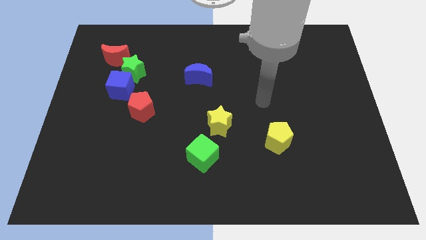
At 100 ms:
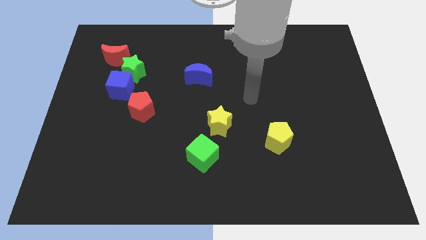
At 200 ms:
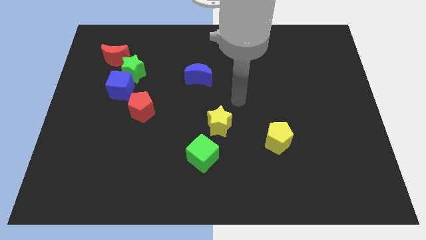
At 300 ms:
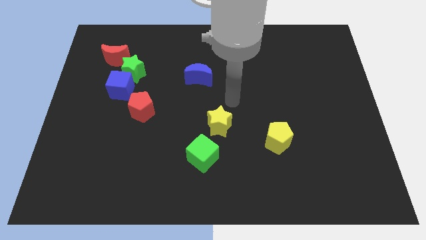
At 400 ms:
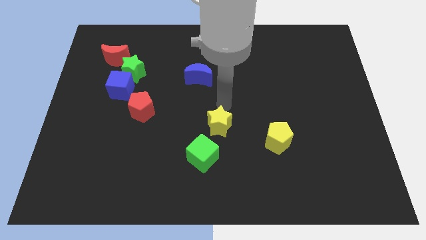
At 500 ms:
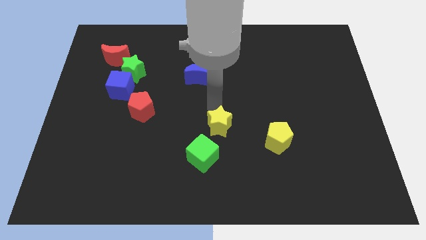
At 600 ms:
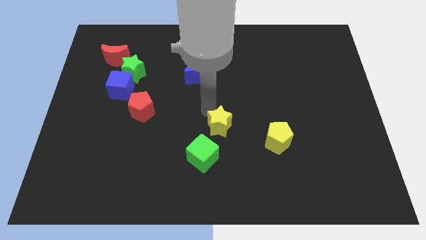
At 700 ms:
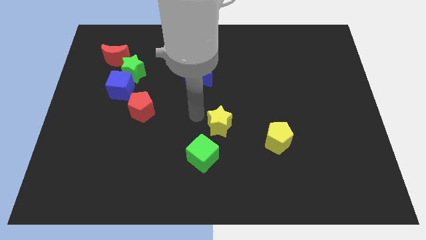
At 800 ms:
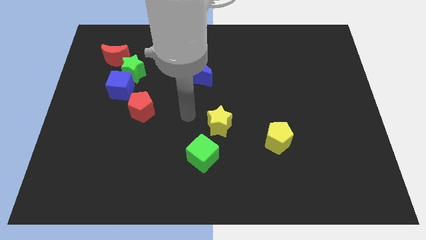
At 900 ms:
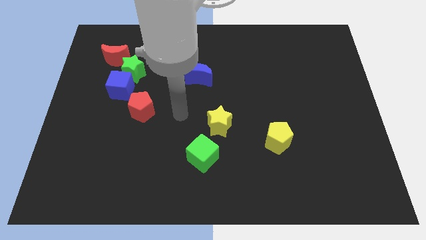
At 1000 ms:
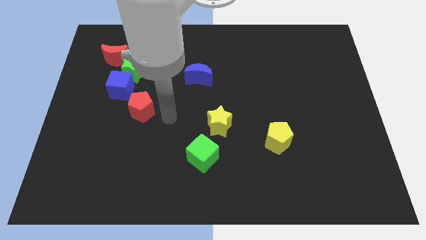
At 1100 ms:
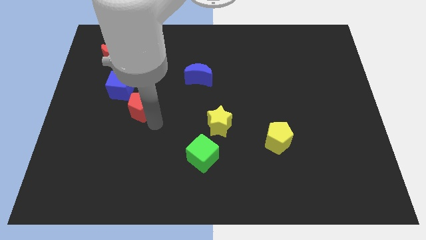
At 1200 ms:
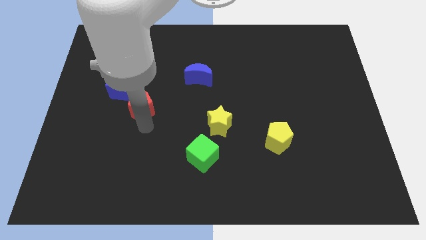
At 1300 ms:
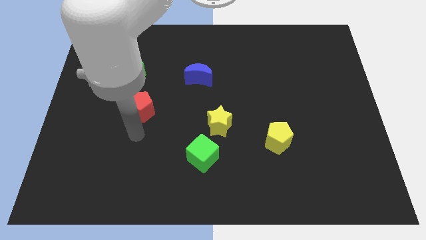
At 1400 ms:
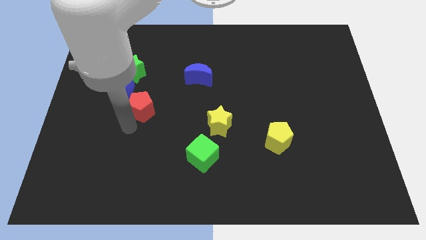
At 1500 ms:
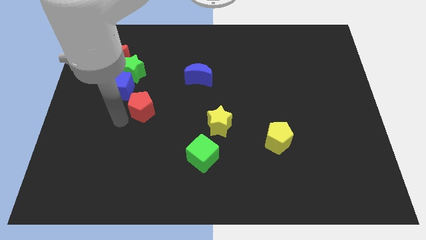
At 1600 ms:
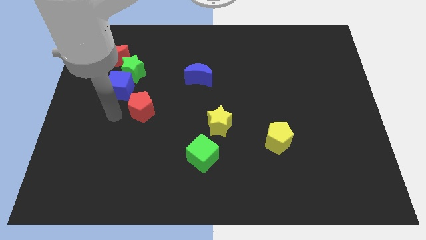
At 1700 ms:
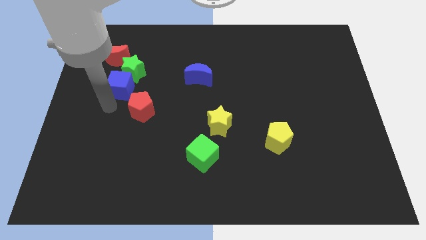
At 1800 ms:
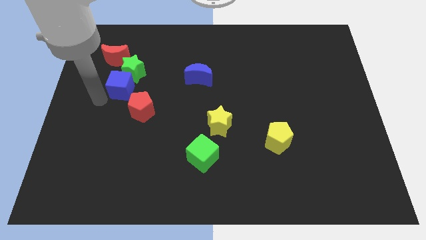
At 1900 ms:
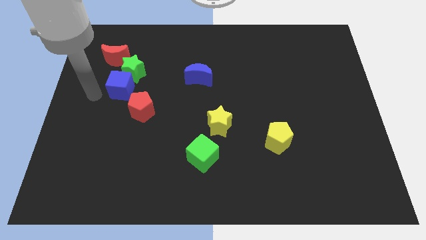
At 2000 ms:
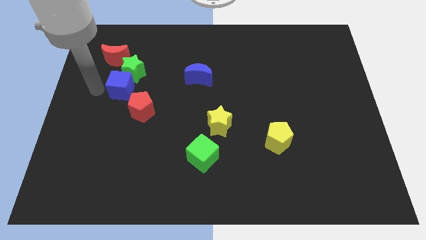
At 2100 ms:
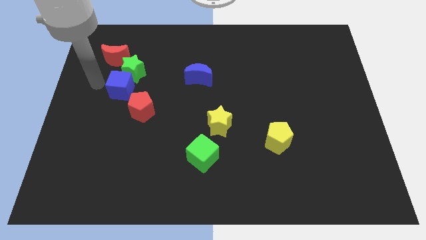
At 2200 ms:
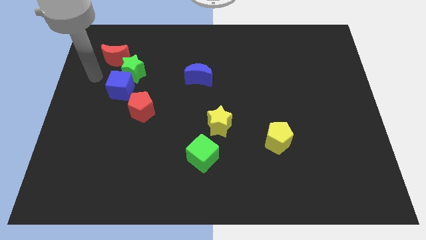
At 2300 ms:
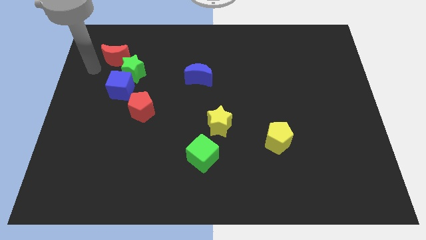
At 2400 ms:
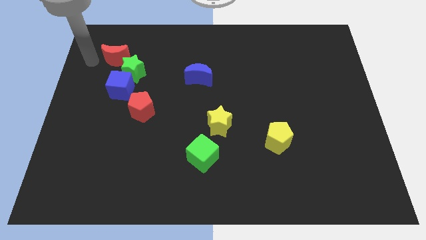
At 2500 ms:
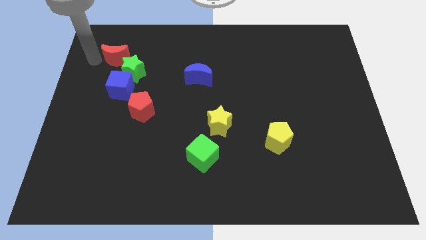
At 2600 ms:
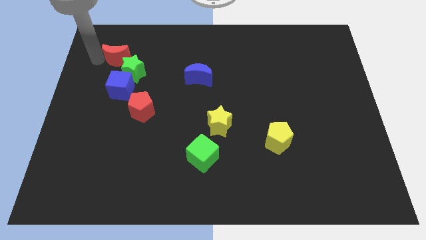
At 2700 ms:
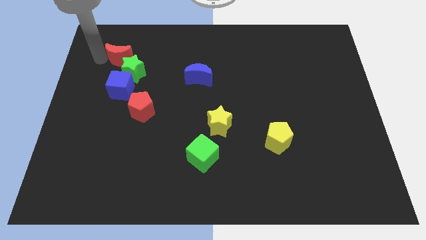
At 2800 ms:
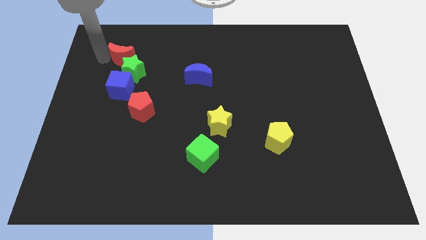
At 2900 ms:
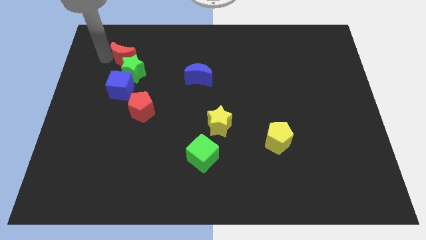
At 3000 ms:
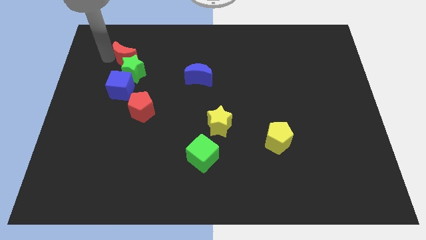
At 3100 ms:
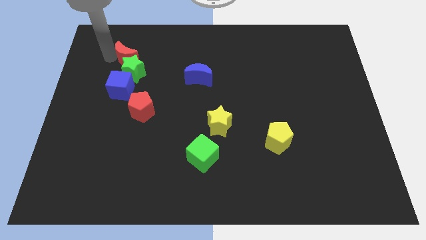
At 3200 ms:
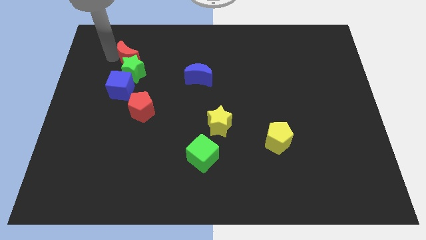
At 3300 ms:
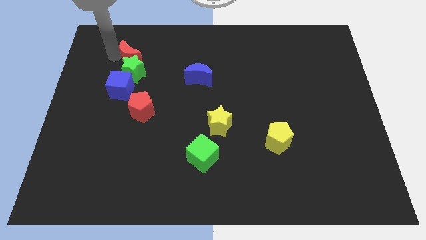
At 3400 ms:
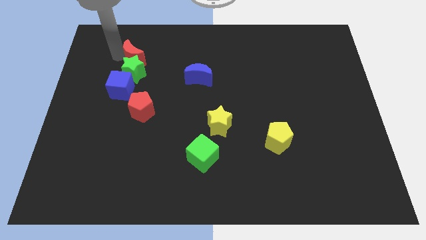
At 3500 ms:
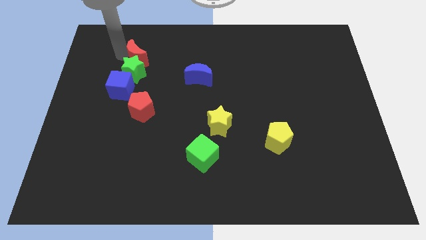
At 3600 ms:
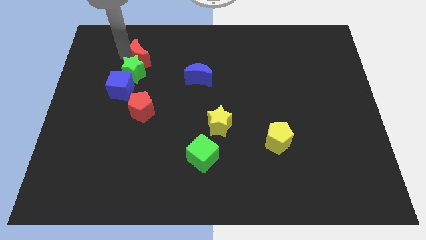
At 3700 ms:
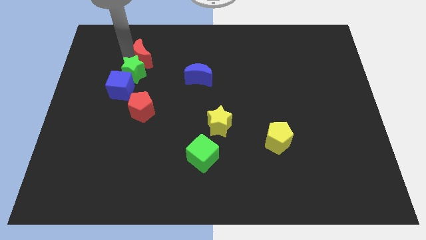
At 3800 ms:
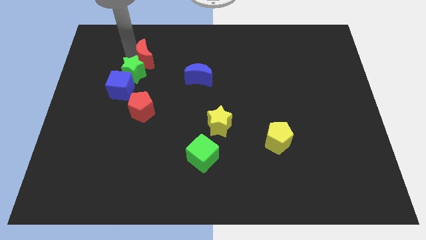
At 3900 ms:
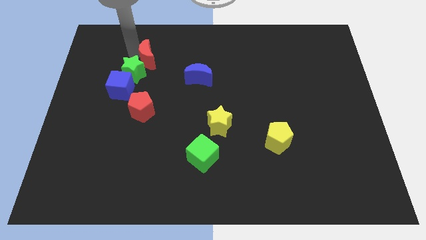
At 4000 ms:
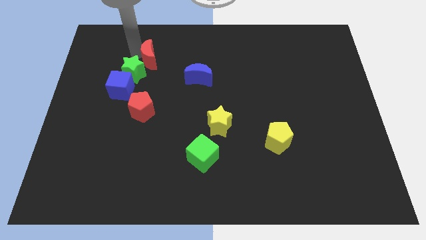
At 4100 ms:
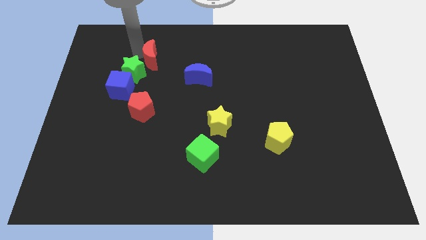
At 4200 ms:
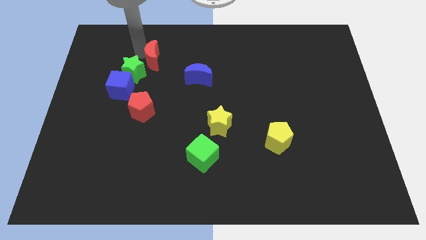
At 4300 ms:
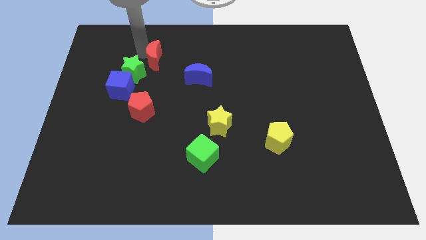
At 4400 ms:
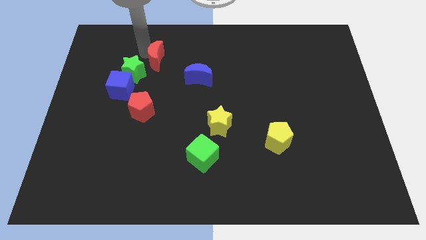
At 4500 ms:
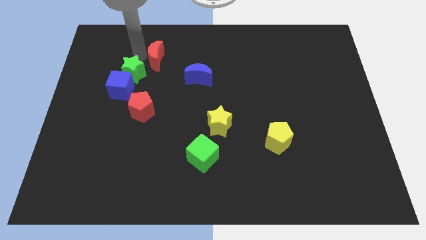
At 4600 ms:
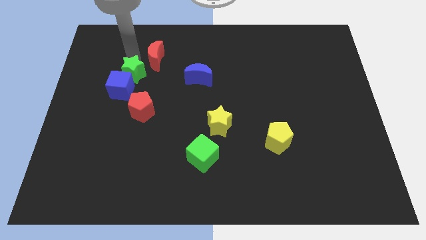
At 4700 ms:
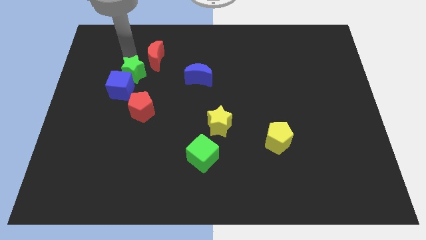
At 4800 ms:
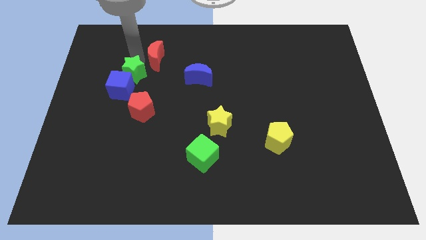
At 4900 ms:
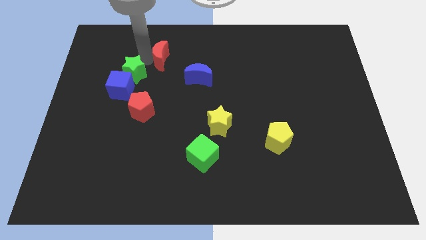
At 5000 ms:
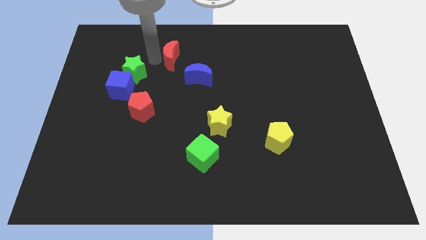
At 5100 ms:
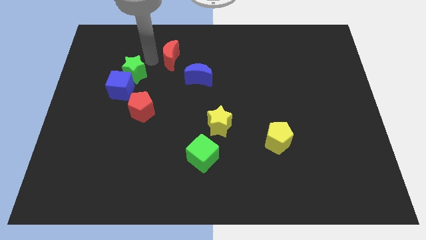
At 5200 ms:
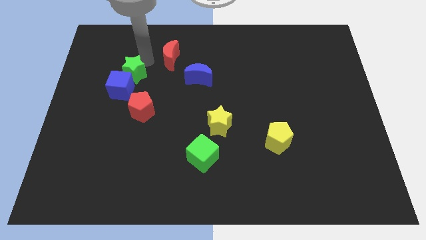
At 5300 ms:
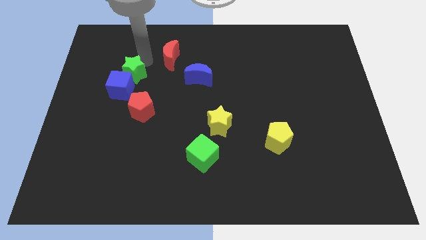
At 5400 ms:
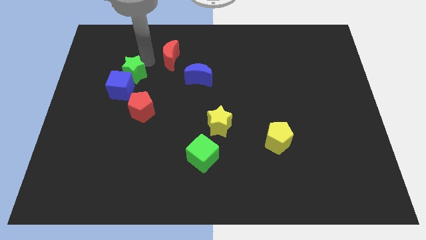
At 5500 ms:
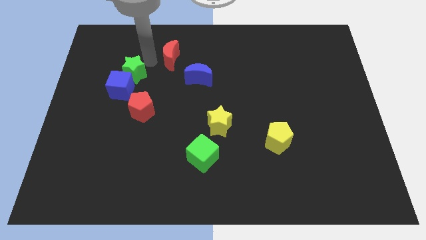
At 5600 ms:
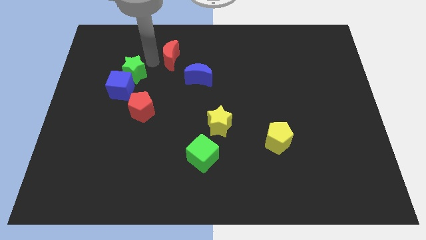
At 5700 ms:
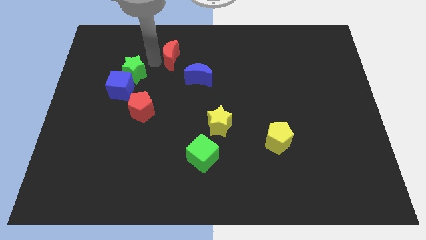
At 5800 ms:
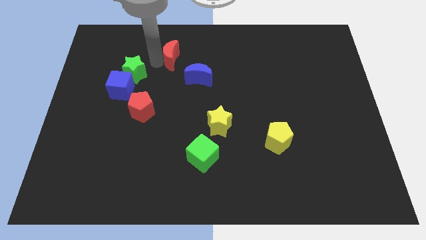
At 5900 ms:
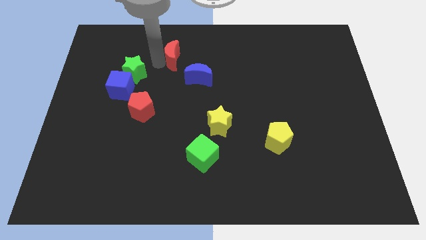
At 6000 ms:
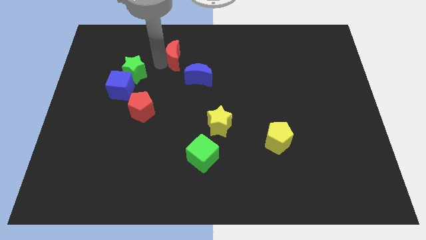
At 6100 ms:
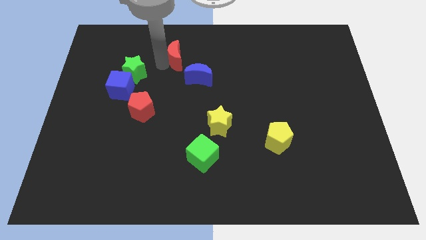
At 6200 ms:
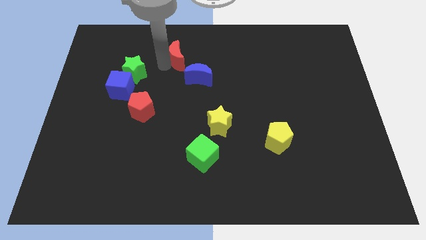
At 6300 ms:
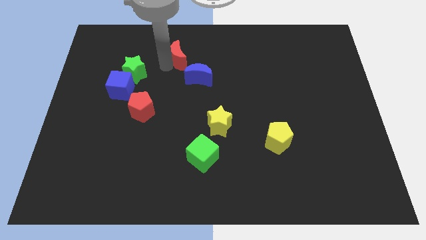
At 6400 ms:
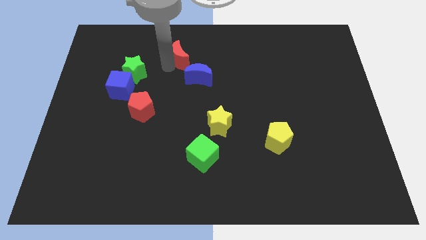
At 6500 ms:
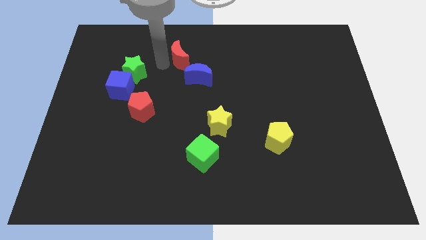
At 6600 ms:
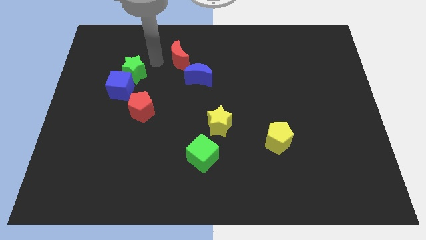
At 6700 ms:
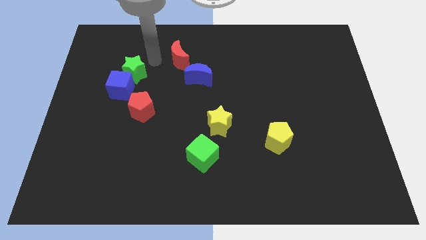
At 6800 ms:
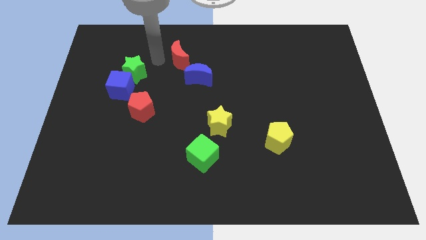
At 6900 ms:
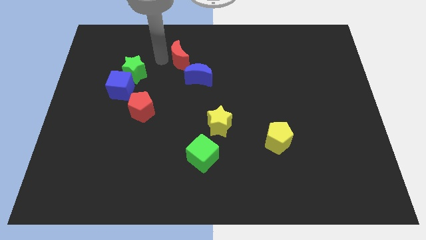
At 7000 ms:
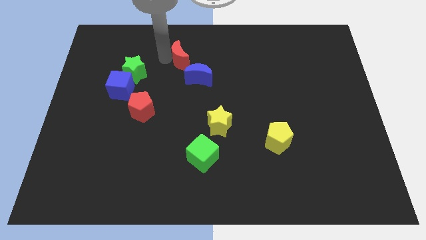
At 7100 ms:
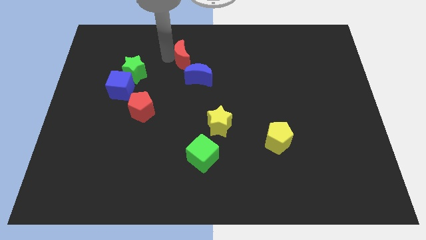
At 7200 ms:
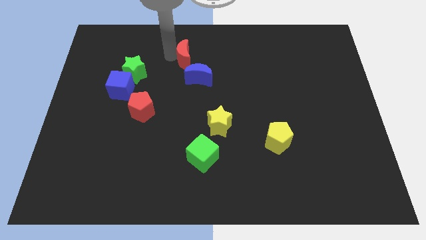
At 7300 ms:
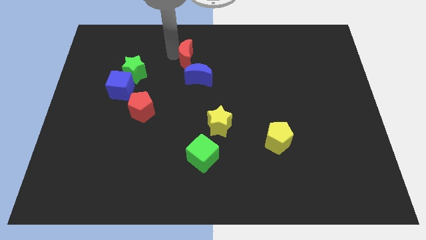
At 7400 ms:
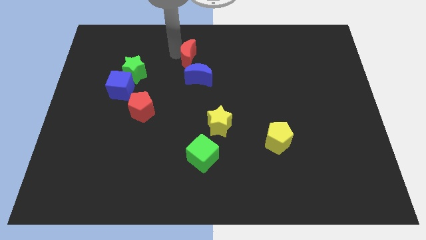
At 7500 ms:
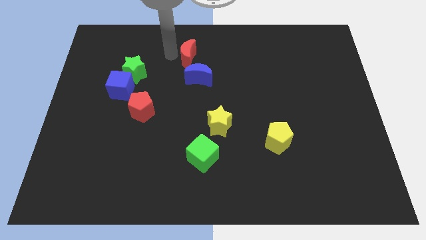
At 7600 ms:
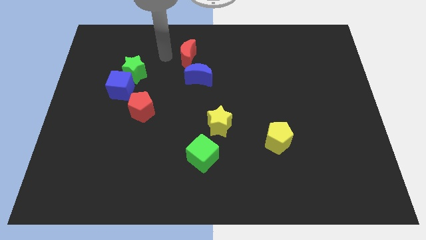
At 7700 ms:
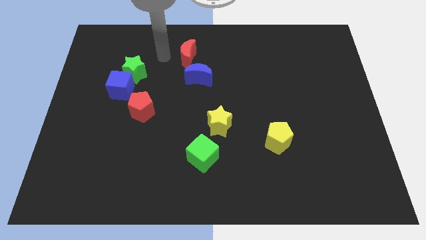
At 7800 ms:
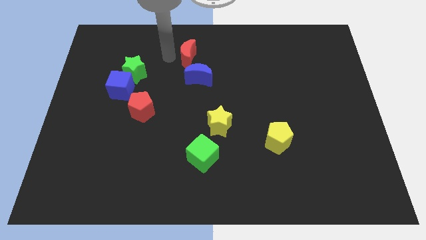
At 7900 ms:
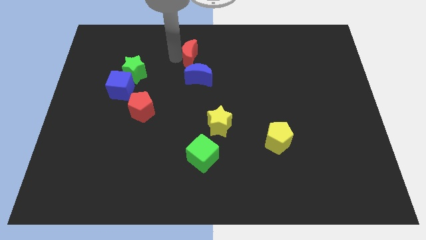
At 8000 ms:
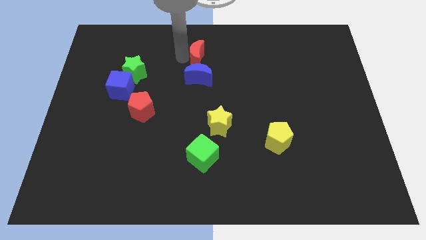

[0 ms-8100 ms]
push the red moon to the right
